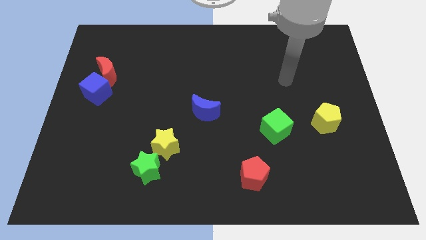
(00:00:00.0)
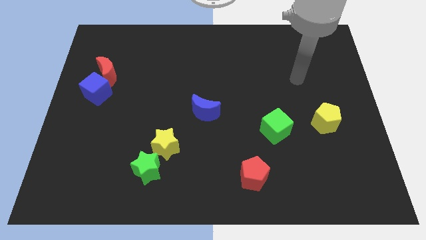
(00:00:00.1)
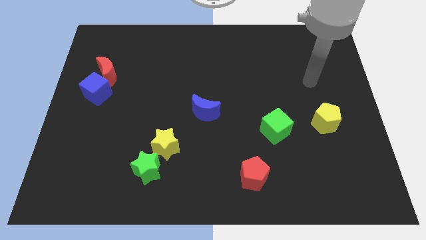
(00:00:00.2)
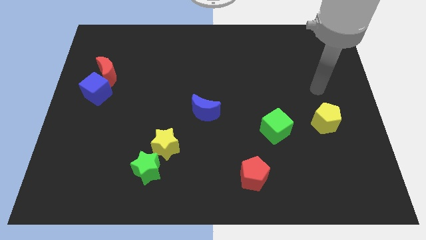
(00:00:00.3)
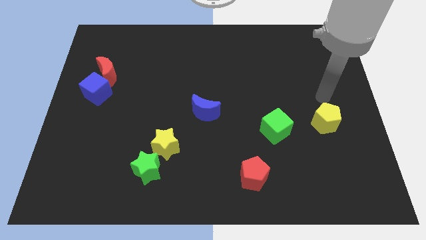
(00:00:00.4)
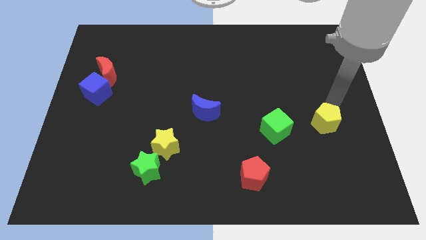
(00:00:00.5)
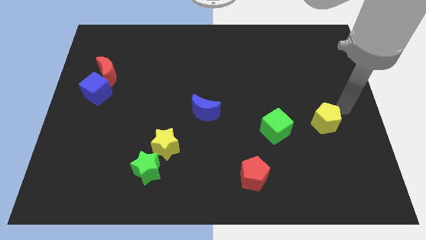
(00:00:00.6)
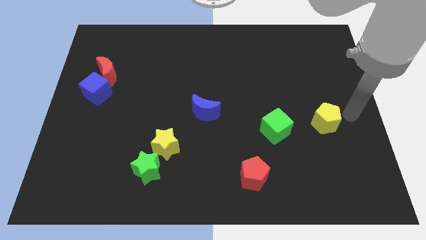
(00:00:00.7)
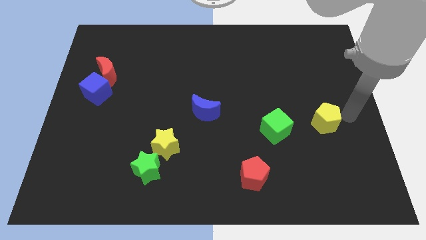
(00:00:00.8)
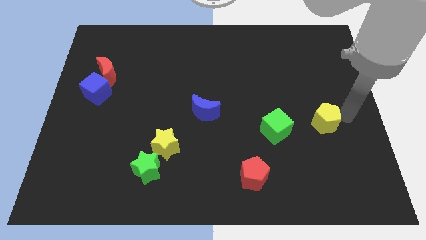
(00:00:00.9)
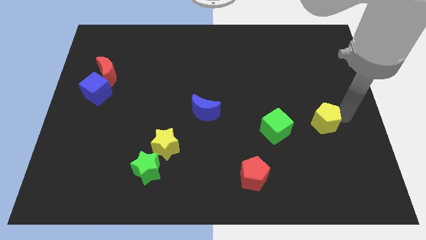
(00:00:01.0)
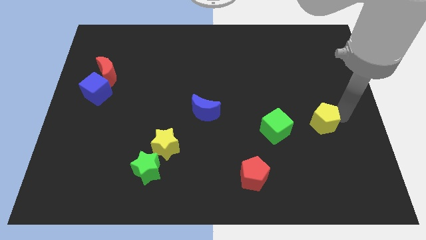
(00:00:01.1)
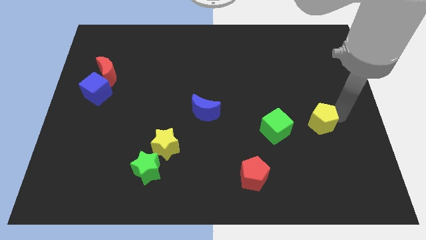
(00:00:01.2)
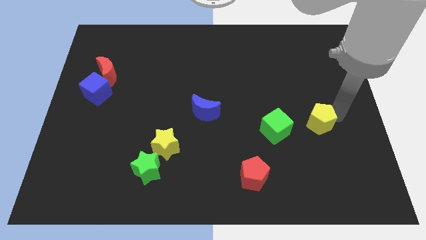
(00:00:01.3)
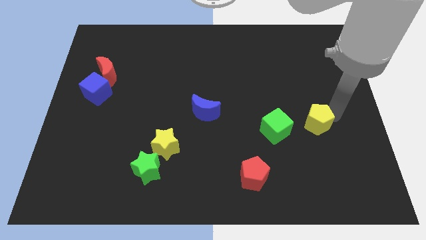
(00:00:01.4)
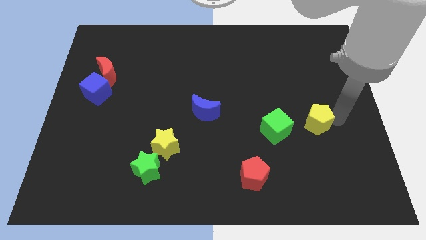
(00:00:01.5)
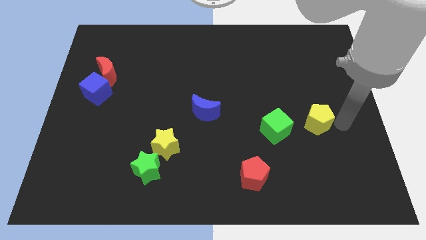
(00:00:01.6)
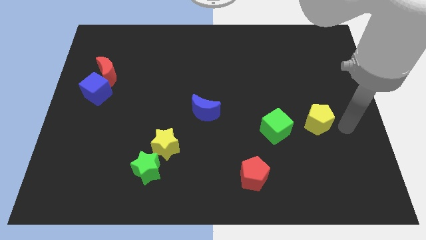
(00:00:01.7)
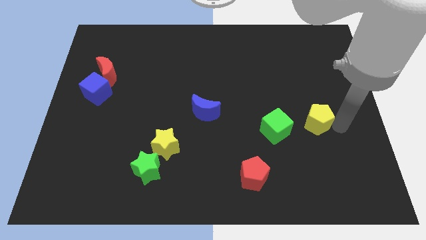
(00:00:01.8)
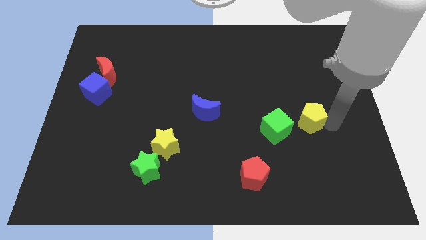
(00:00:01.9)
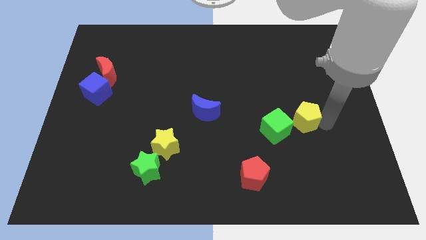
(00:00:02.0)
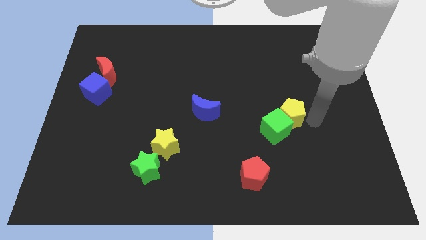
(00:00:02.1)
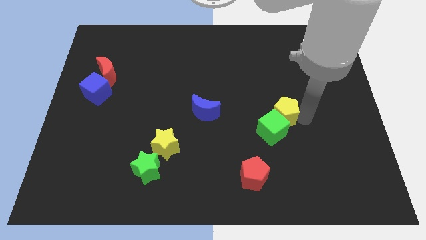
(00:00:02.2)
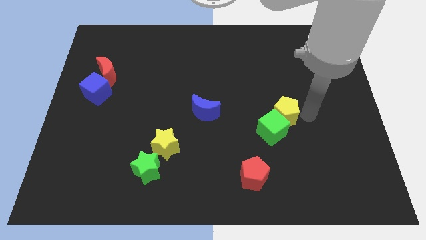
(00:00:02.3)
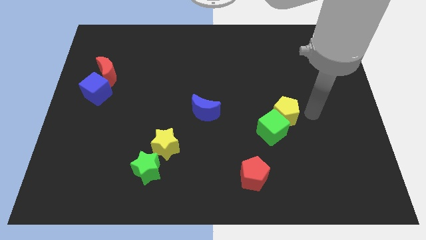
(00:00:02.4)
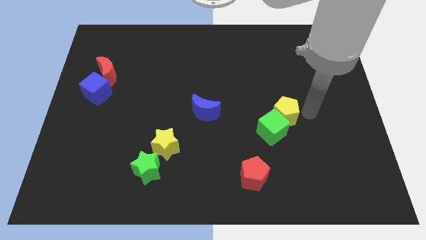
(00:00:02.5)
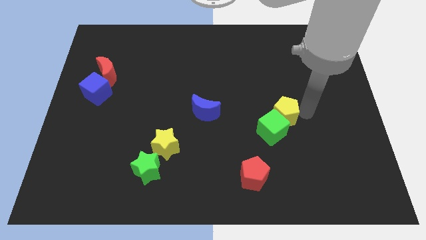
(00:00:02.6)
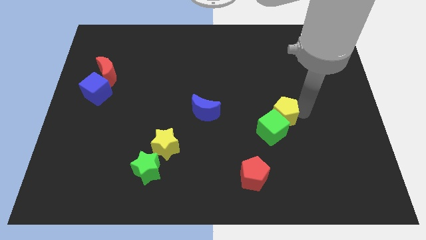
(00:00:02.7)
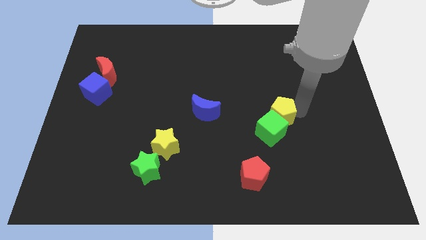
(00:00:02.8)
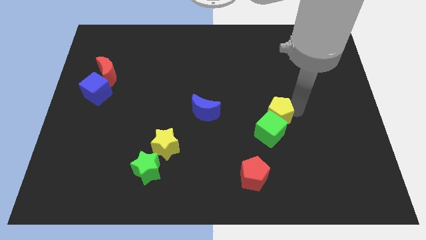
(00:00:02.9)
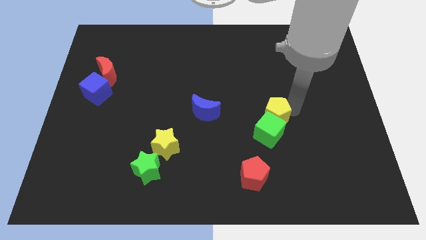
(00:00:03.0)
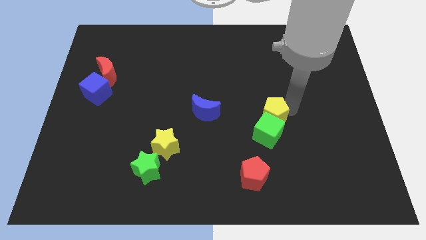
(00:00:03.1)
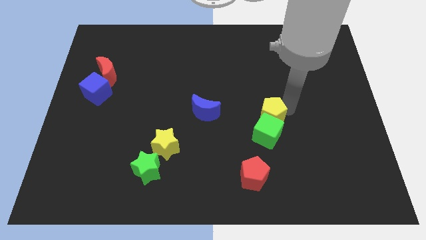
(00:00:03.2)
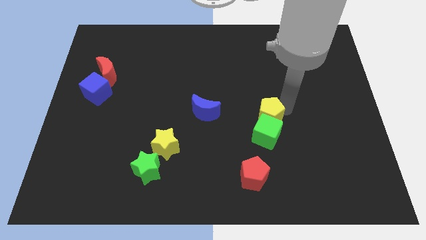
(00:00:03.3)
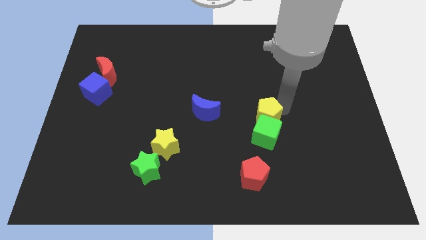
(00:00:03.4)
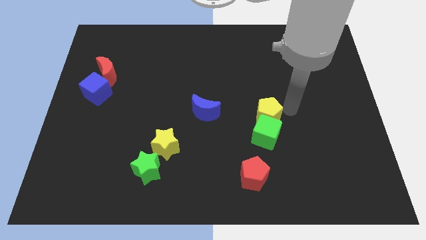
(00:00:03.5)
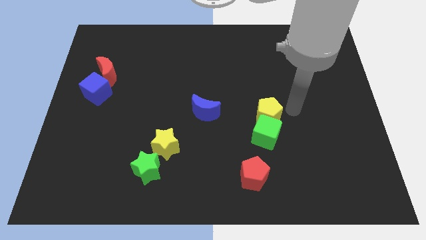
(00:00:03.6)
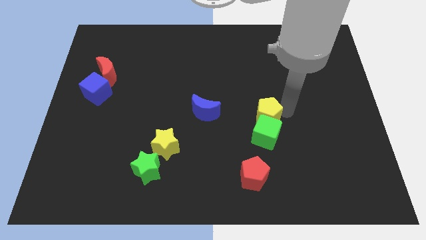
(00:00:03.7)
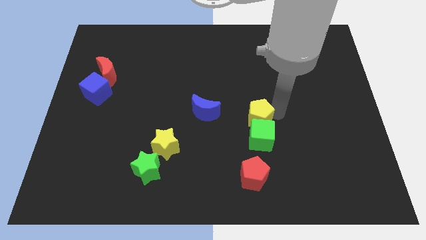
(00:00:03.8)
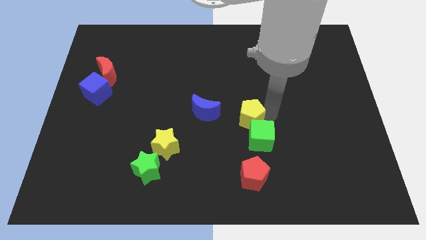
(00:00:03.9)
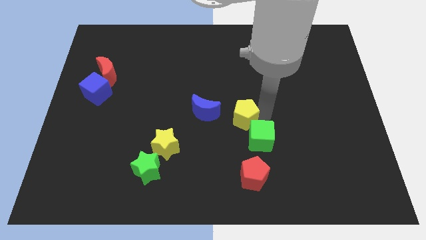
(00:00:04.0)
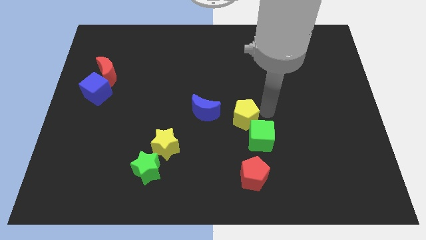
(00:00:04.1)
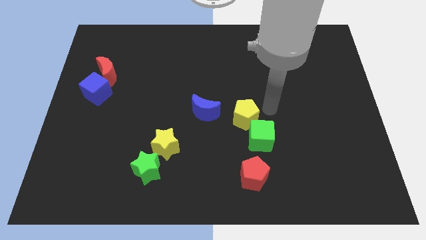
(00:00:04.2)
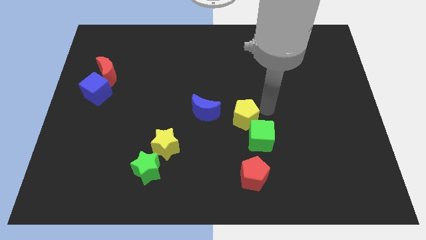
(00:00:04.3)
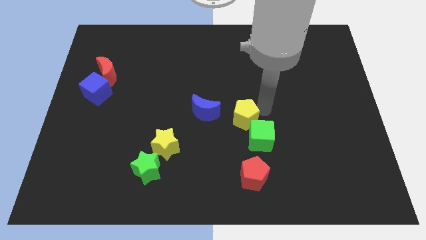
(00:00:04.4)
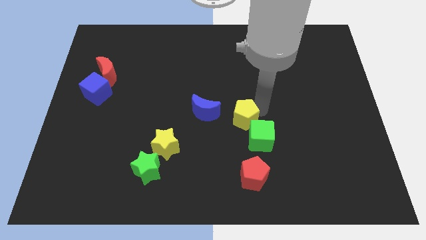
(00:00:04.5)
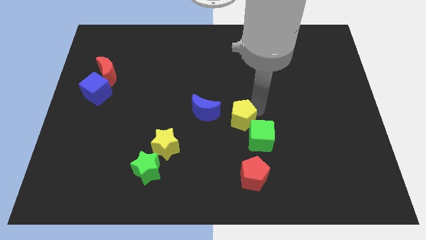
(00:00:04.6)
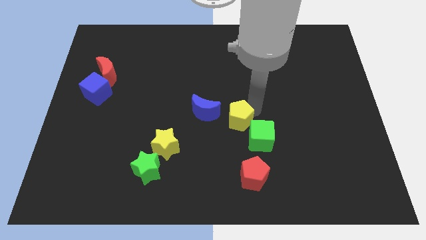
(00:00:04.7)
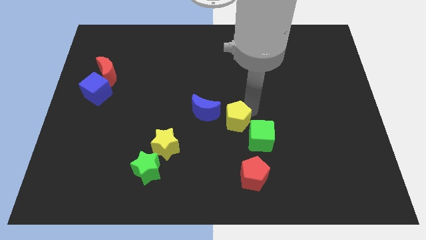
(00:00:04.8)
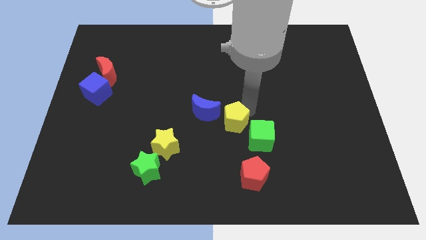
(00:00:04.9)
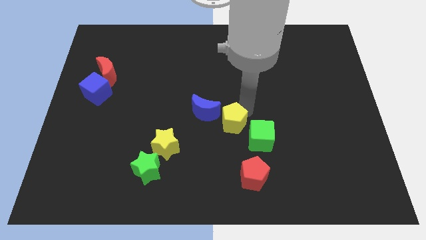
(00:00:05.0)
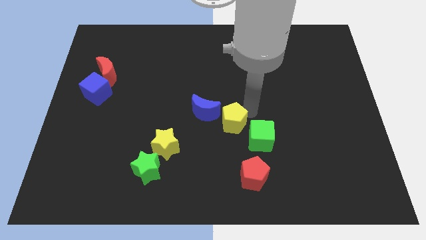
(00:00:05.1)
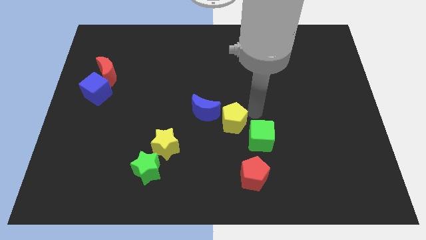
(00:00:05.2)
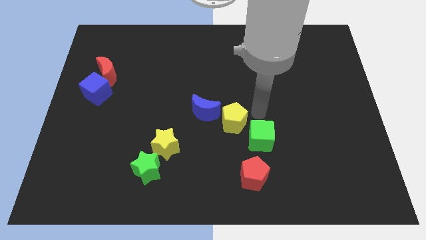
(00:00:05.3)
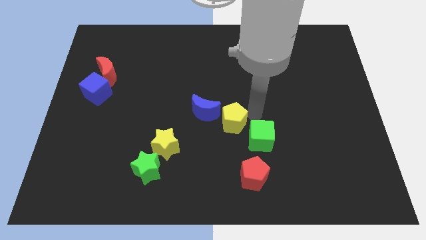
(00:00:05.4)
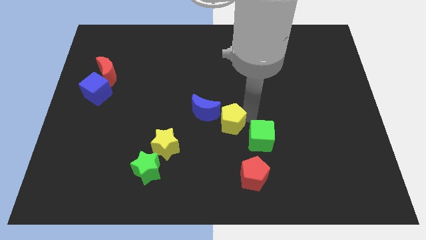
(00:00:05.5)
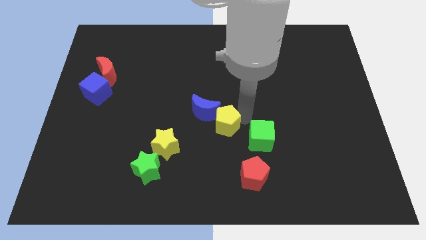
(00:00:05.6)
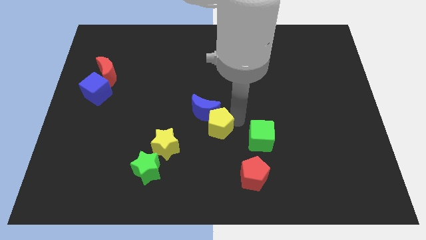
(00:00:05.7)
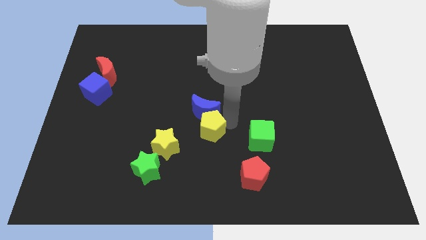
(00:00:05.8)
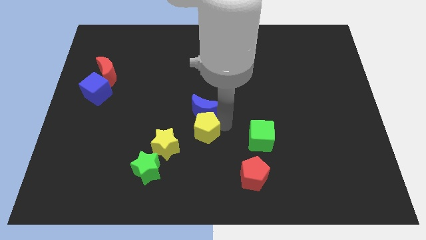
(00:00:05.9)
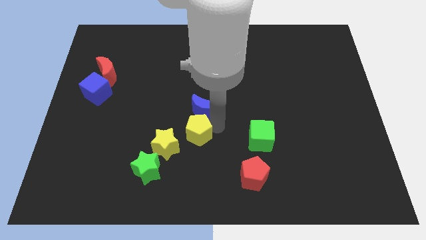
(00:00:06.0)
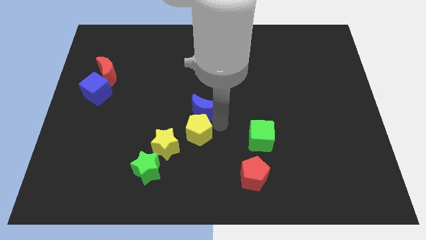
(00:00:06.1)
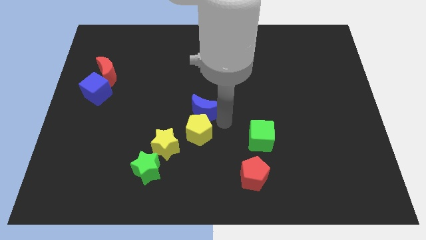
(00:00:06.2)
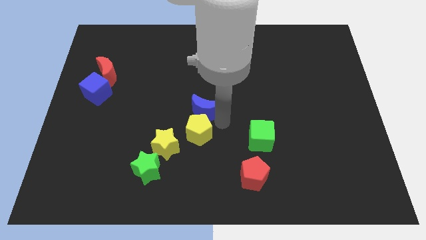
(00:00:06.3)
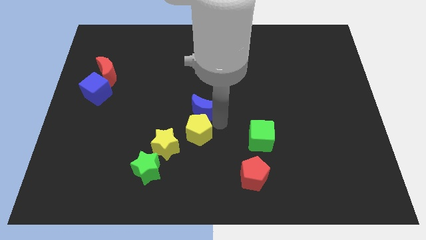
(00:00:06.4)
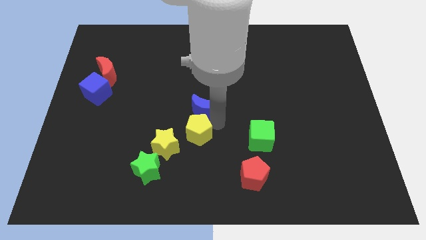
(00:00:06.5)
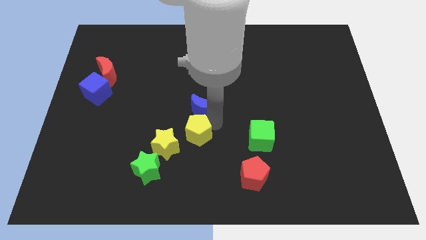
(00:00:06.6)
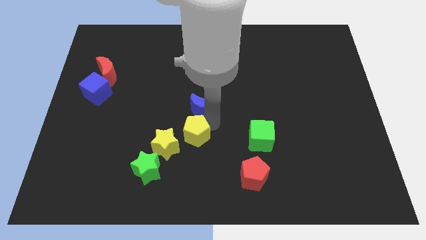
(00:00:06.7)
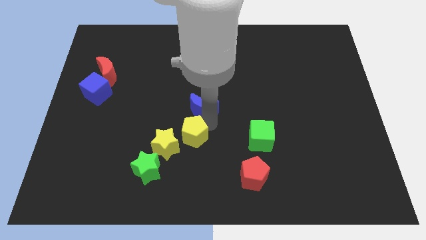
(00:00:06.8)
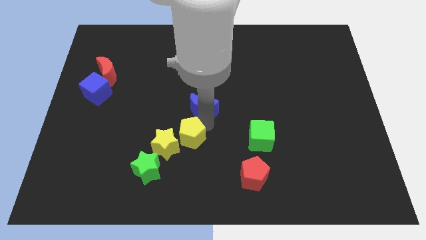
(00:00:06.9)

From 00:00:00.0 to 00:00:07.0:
slide the yellow pentagon next to the yellow star
